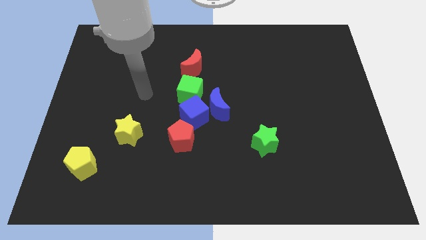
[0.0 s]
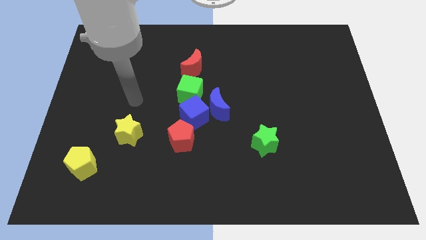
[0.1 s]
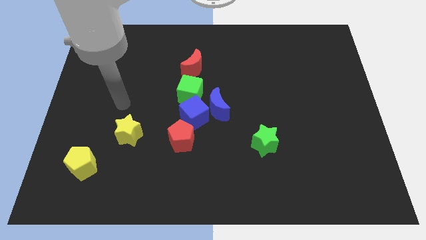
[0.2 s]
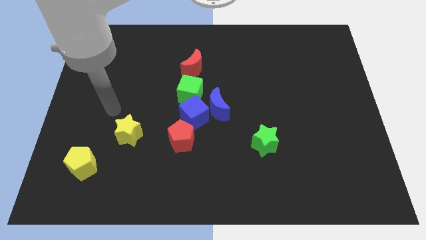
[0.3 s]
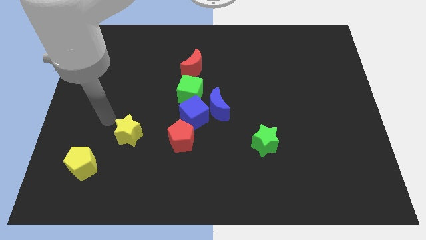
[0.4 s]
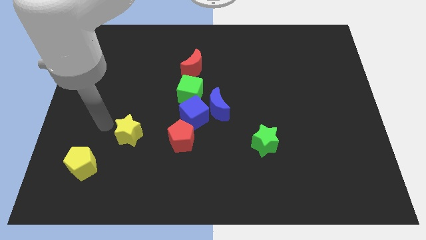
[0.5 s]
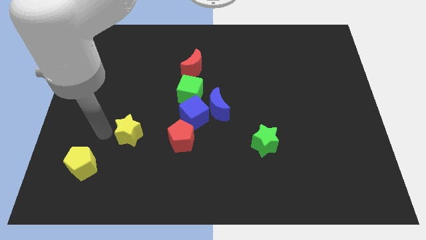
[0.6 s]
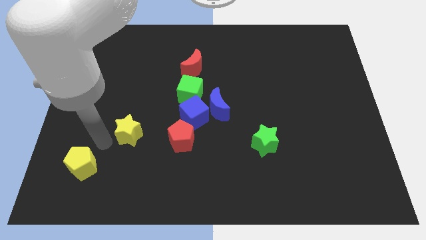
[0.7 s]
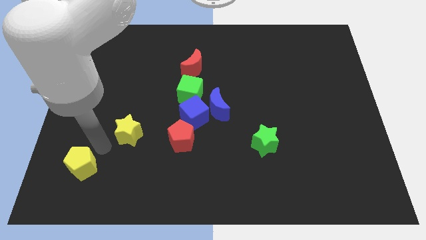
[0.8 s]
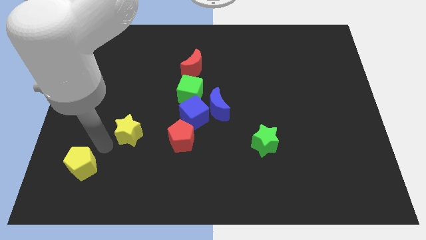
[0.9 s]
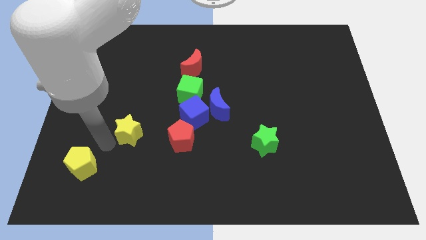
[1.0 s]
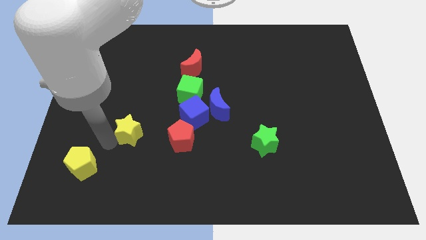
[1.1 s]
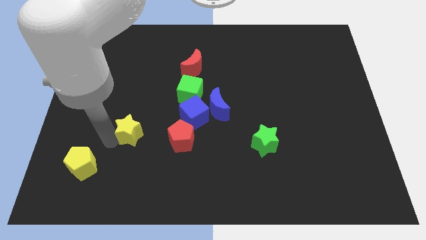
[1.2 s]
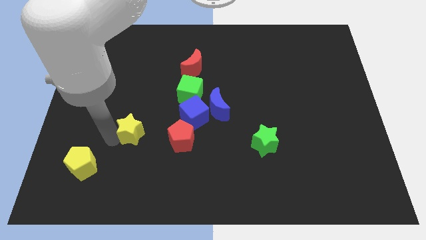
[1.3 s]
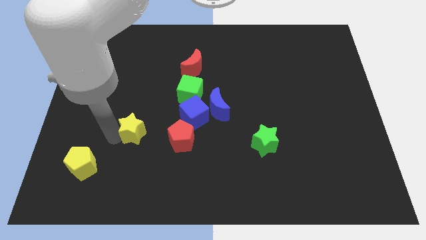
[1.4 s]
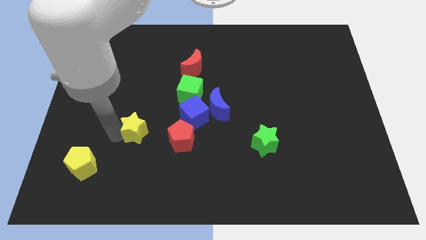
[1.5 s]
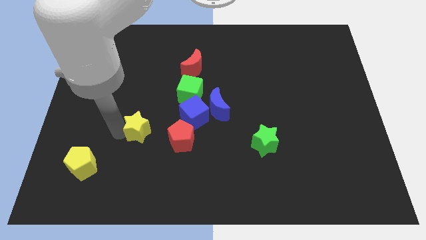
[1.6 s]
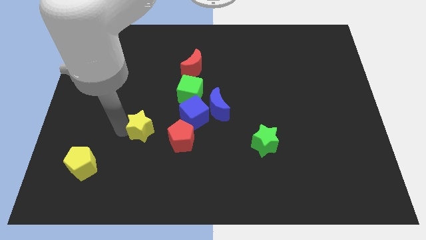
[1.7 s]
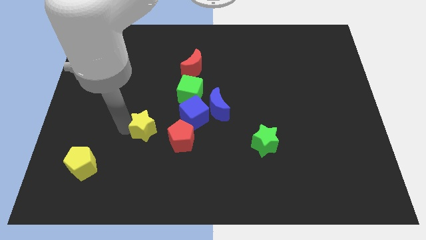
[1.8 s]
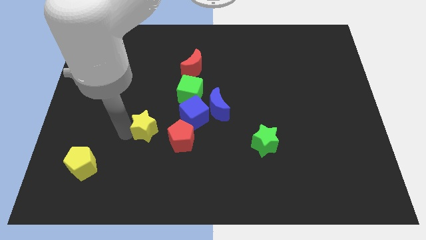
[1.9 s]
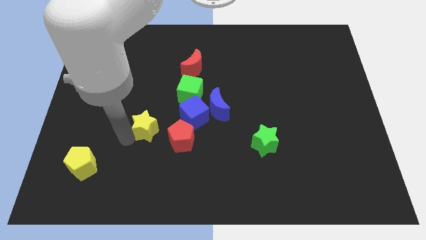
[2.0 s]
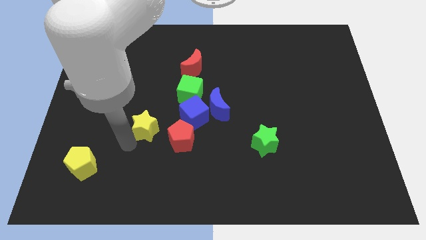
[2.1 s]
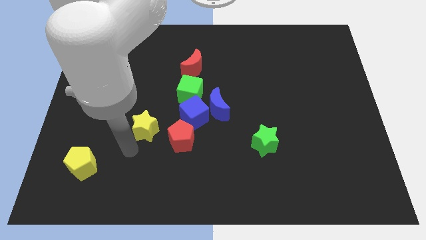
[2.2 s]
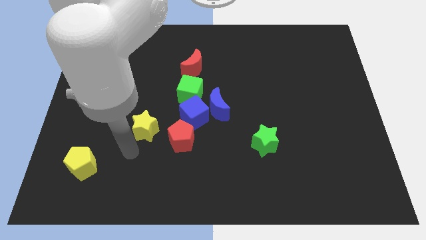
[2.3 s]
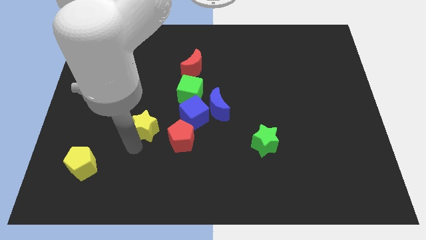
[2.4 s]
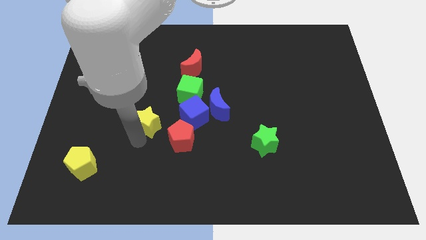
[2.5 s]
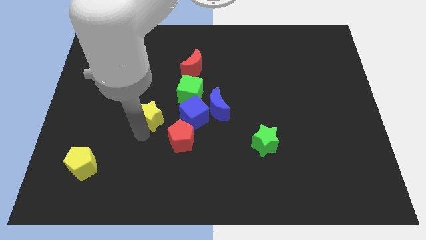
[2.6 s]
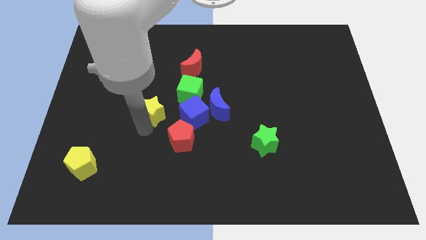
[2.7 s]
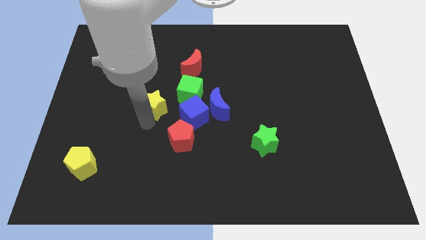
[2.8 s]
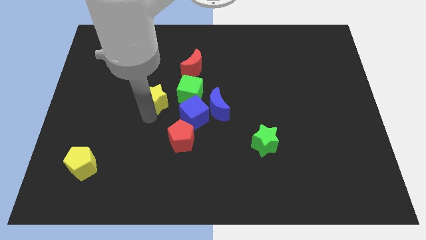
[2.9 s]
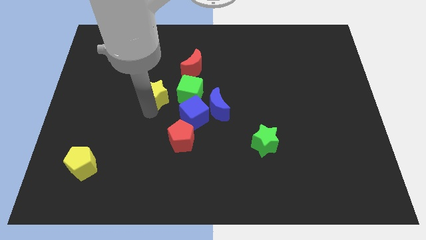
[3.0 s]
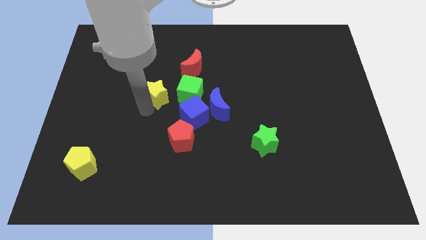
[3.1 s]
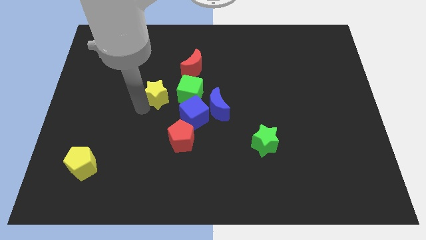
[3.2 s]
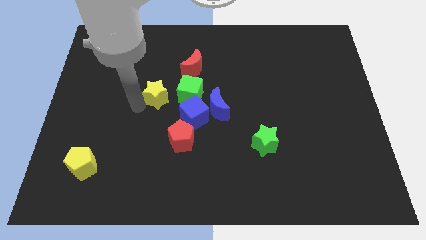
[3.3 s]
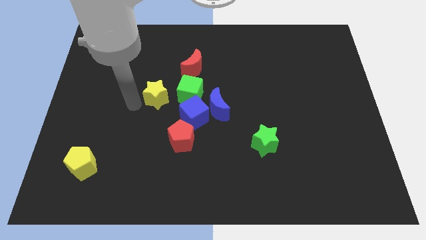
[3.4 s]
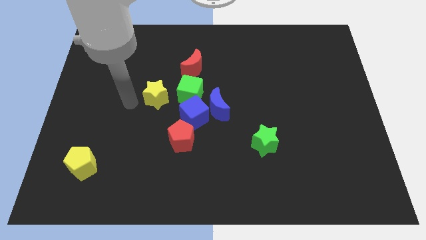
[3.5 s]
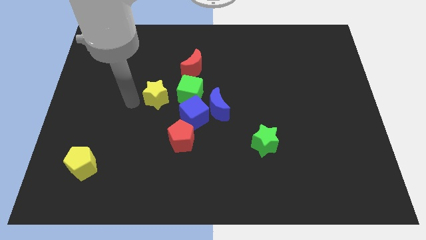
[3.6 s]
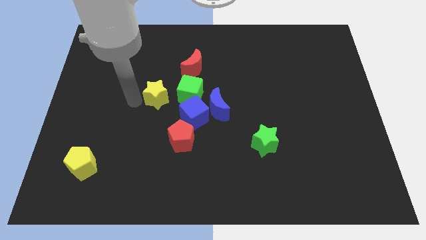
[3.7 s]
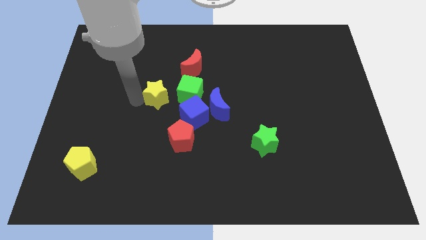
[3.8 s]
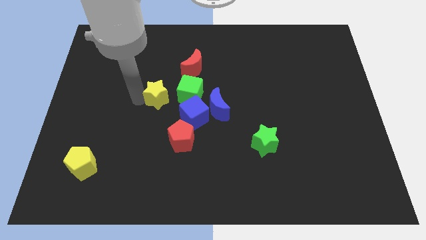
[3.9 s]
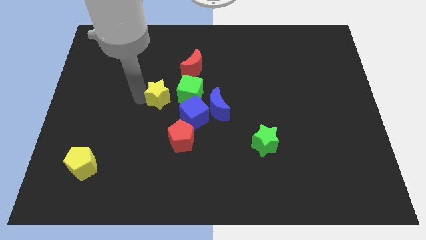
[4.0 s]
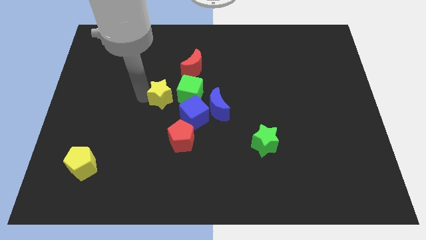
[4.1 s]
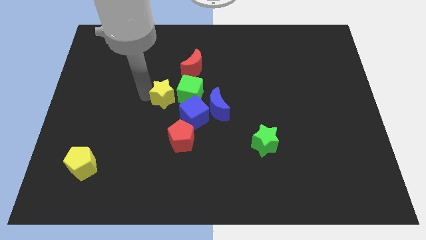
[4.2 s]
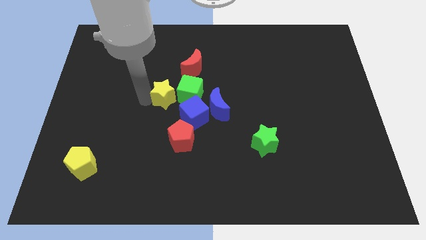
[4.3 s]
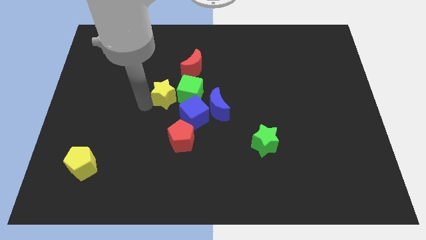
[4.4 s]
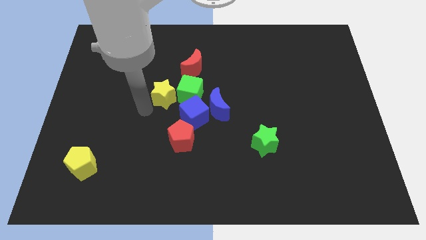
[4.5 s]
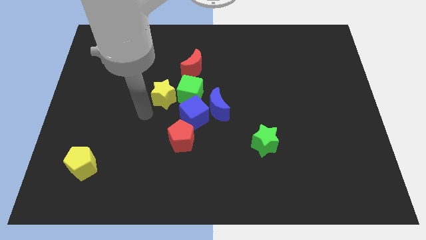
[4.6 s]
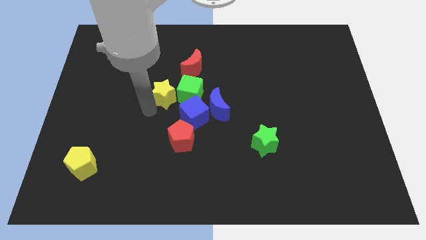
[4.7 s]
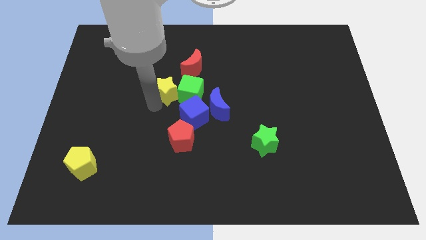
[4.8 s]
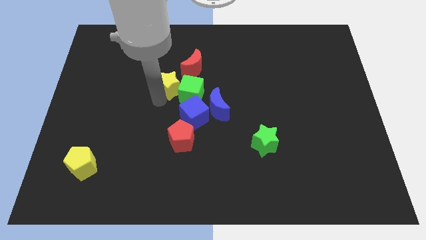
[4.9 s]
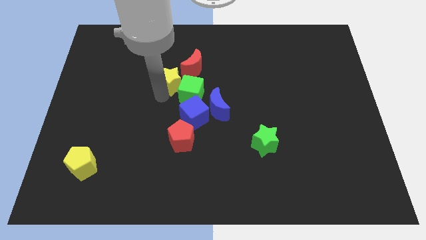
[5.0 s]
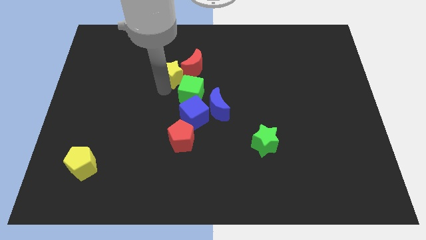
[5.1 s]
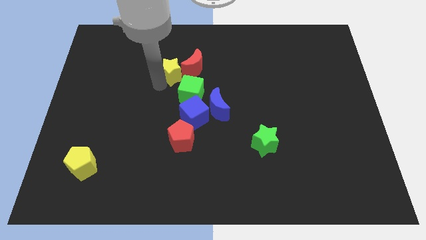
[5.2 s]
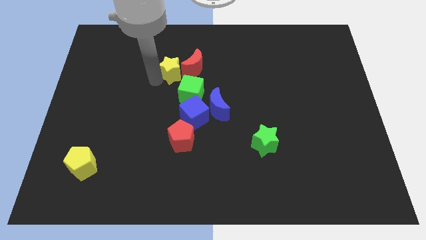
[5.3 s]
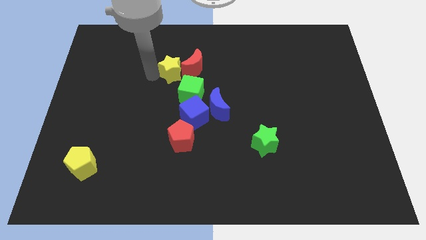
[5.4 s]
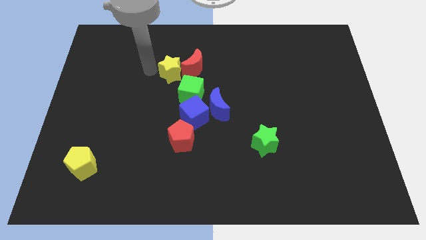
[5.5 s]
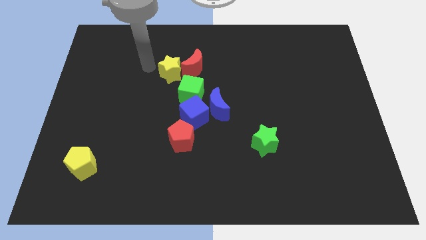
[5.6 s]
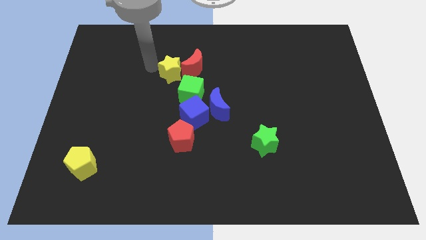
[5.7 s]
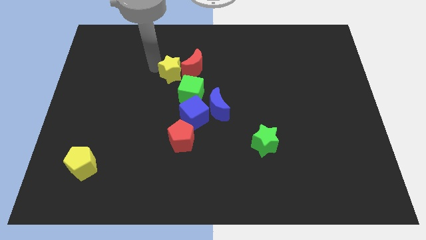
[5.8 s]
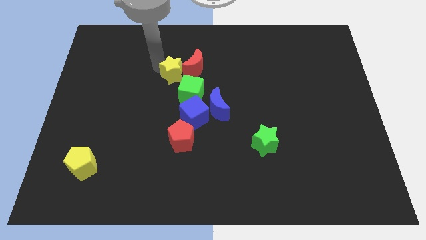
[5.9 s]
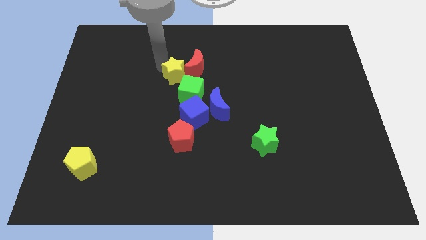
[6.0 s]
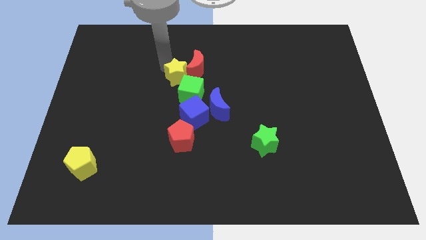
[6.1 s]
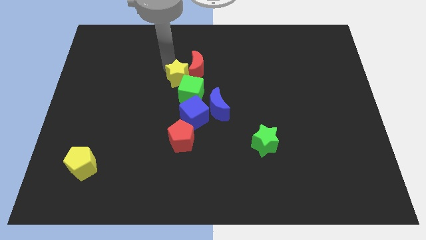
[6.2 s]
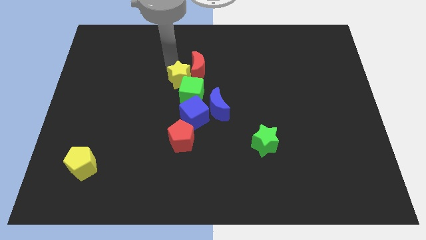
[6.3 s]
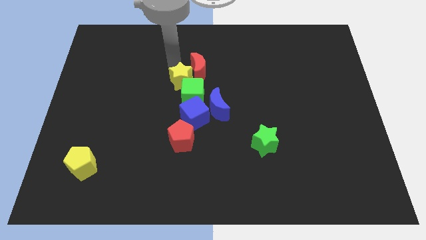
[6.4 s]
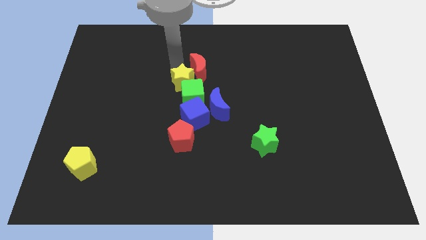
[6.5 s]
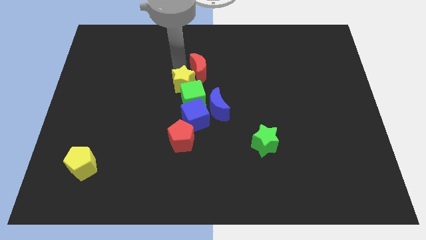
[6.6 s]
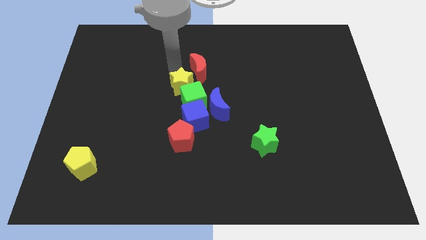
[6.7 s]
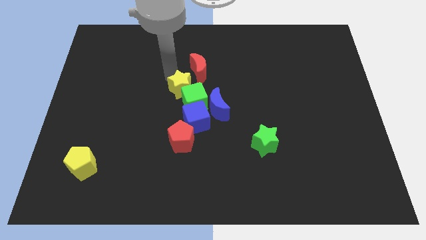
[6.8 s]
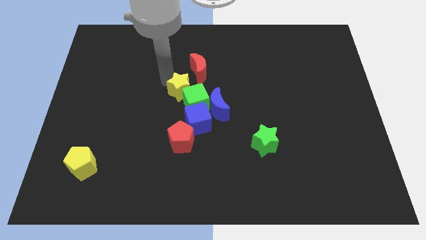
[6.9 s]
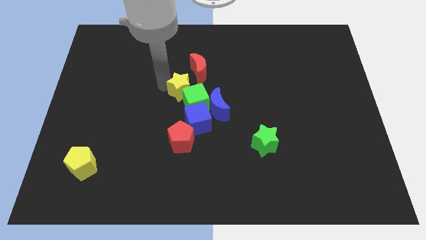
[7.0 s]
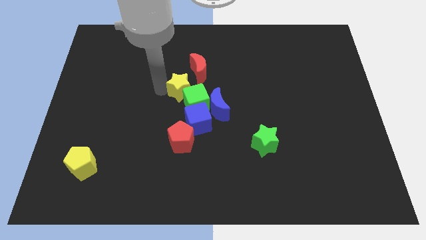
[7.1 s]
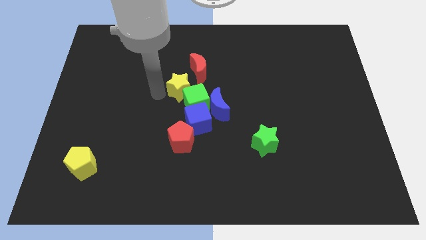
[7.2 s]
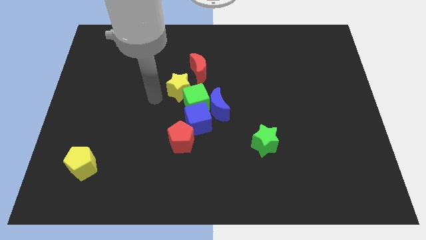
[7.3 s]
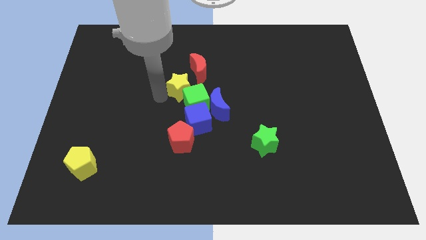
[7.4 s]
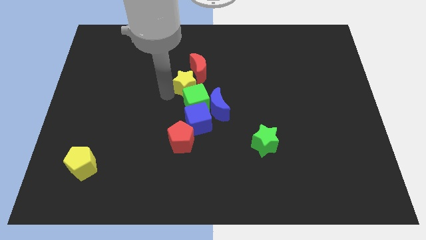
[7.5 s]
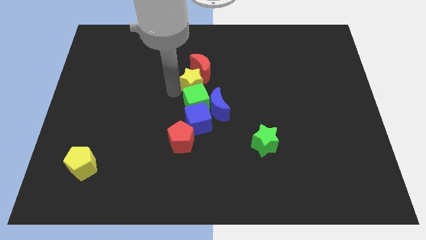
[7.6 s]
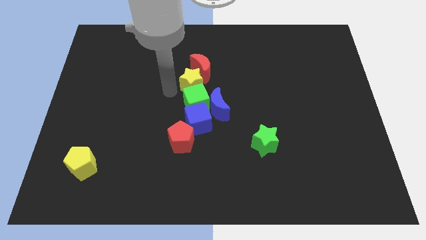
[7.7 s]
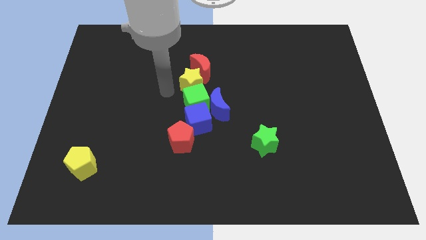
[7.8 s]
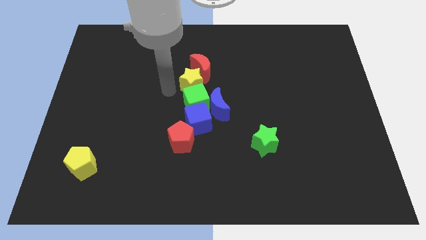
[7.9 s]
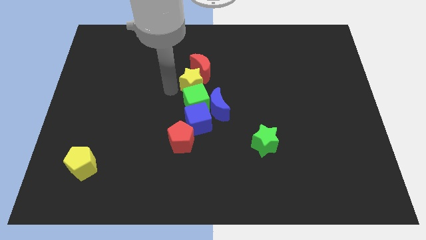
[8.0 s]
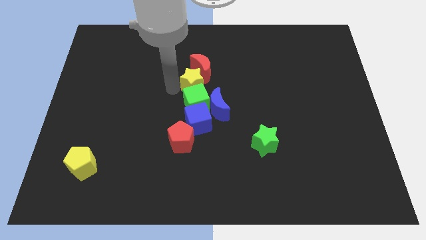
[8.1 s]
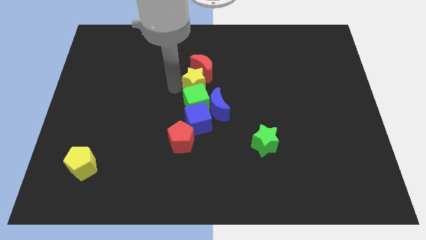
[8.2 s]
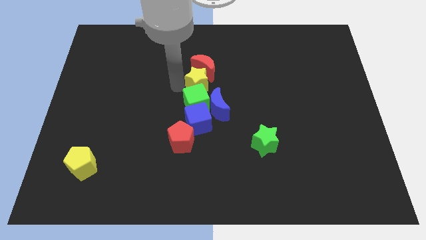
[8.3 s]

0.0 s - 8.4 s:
put the yellow star to the top side of the blue moon
